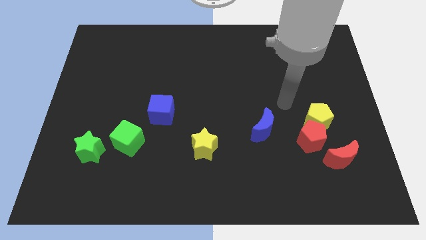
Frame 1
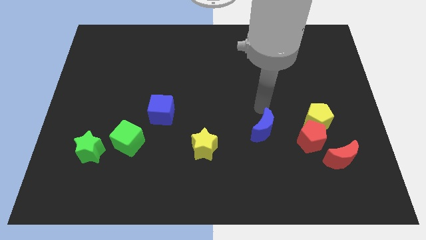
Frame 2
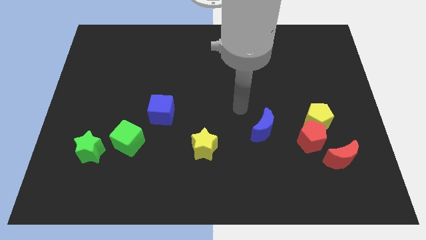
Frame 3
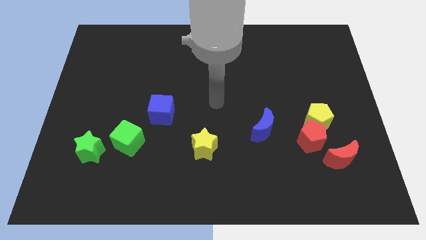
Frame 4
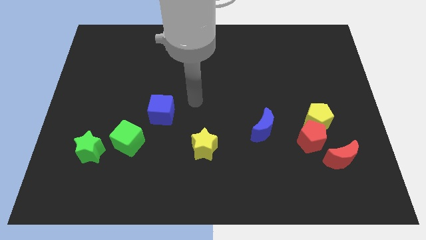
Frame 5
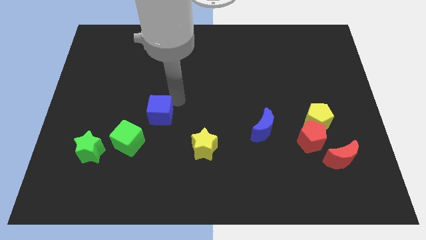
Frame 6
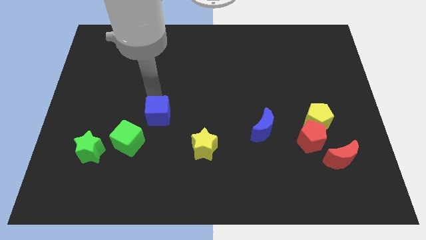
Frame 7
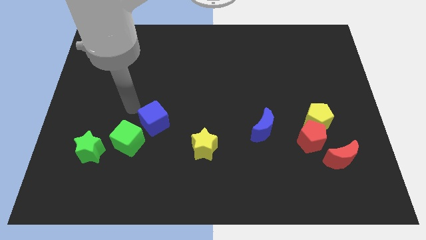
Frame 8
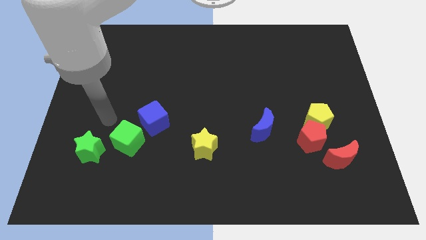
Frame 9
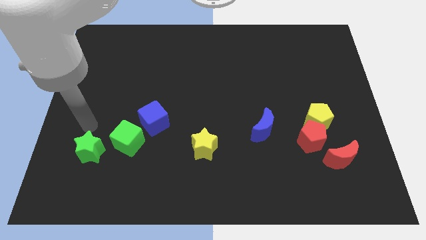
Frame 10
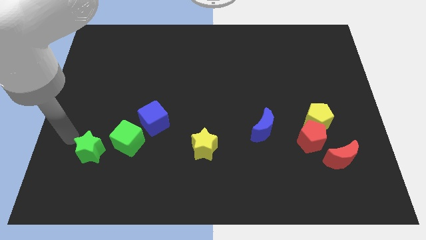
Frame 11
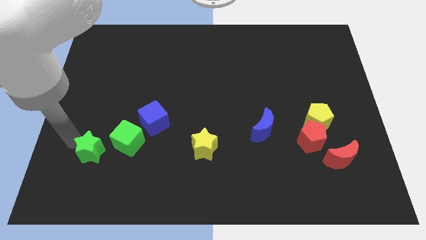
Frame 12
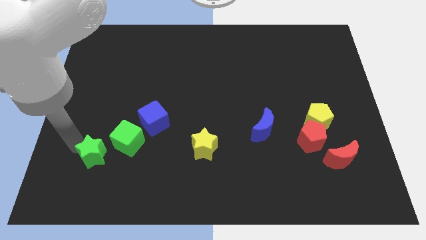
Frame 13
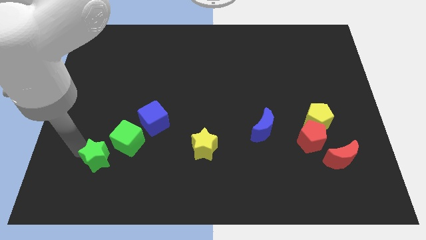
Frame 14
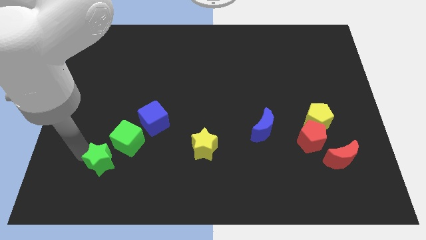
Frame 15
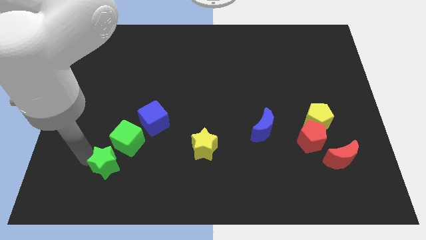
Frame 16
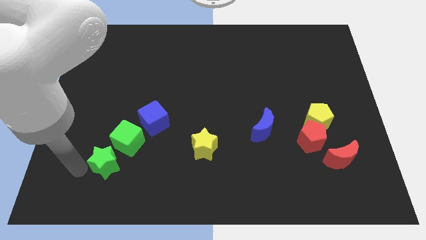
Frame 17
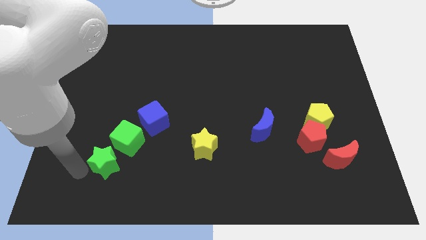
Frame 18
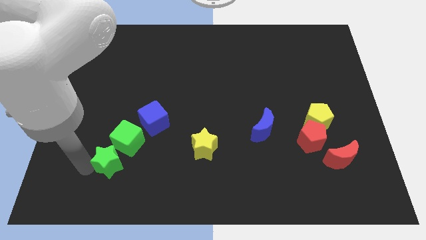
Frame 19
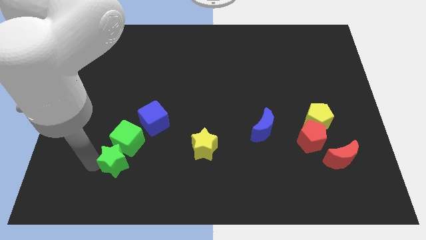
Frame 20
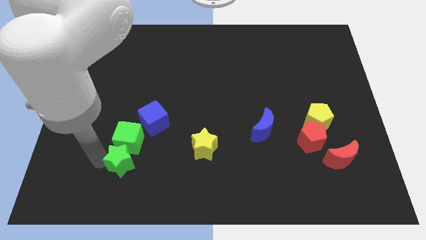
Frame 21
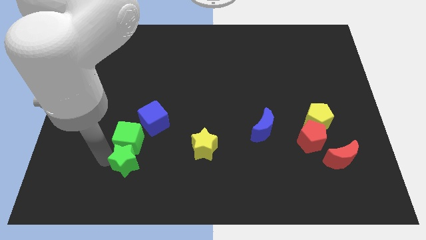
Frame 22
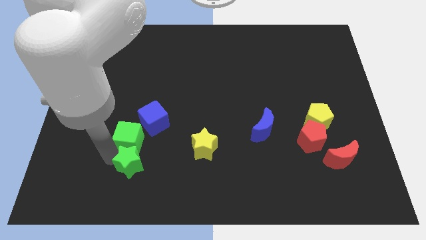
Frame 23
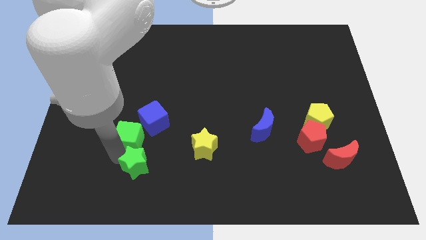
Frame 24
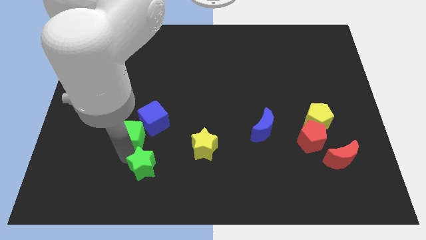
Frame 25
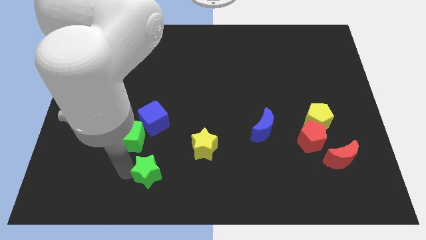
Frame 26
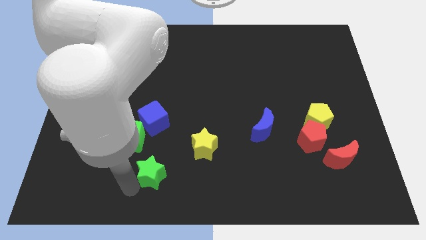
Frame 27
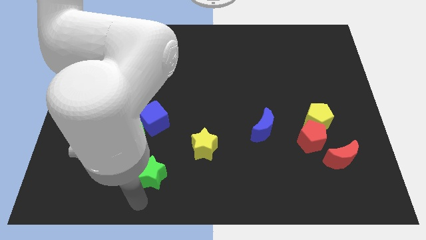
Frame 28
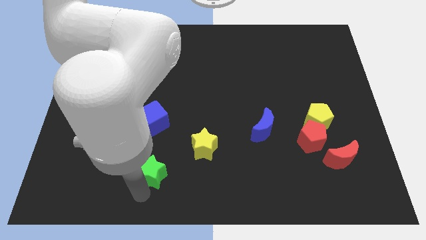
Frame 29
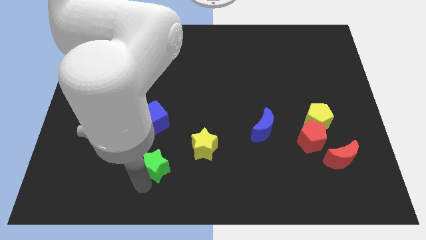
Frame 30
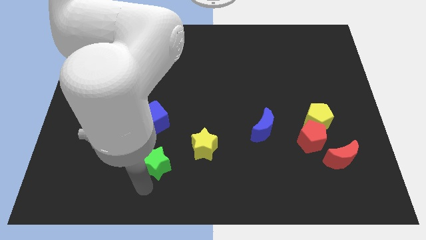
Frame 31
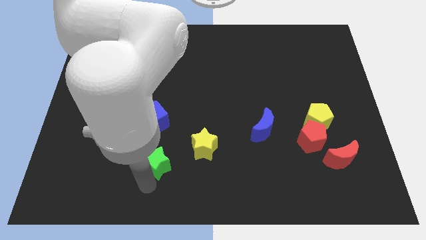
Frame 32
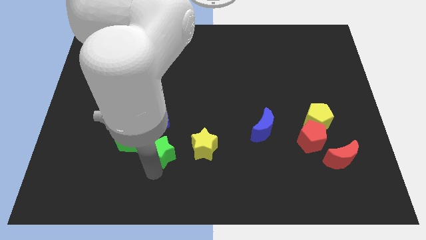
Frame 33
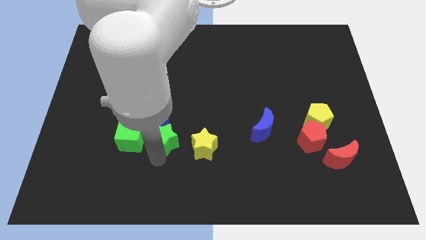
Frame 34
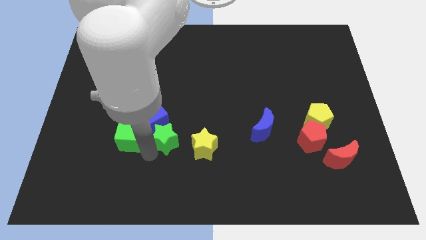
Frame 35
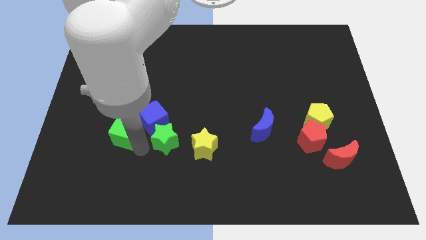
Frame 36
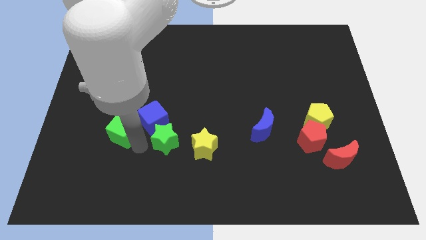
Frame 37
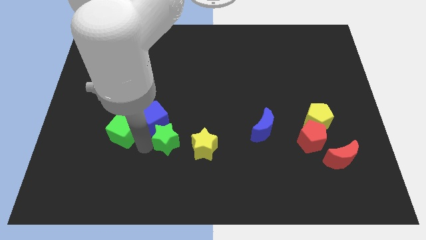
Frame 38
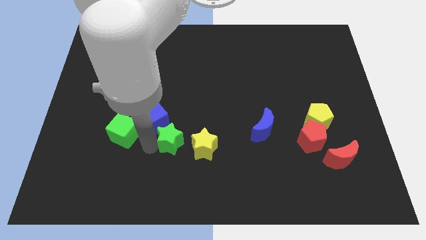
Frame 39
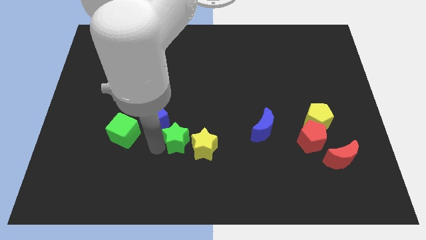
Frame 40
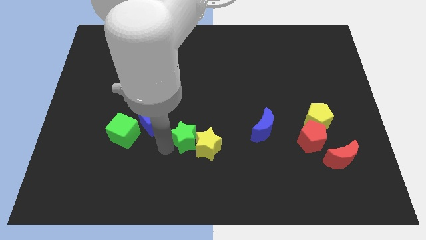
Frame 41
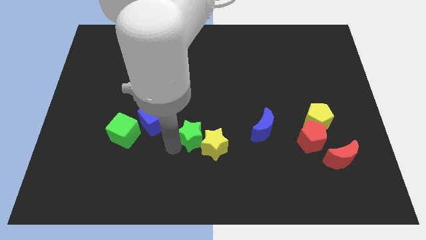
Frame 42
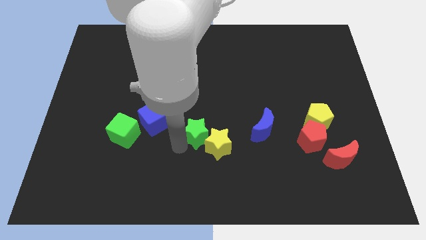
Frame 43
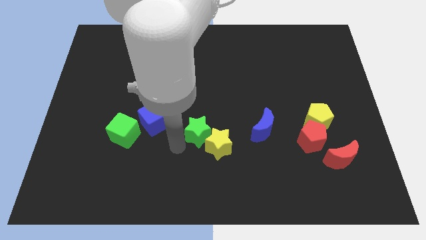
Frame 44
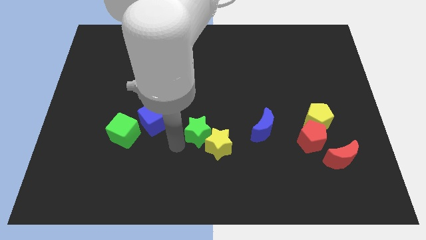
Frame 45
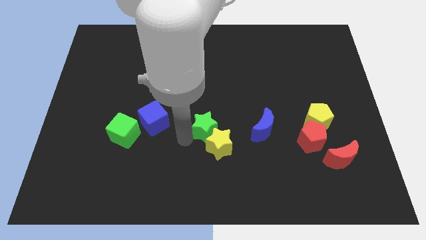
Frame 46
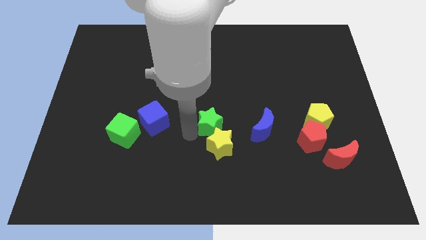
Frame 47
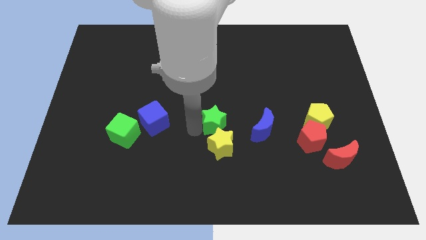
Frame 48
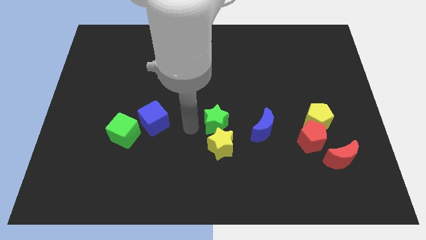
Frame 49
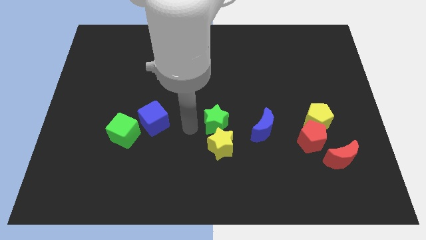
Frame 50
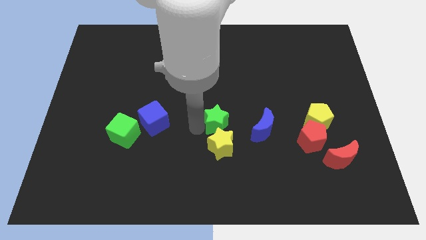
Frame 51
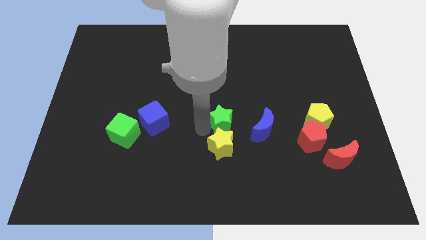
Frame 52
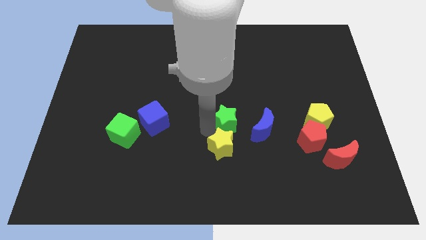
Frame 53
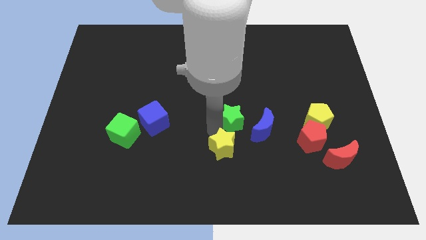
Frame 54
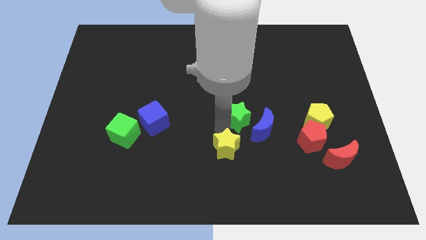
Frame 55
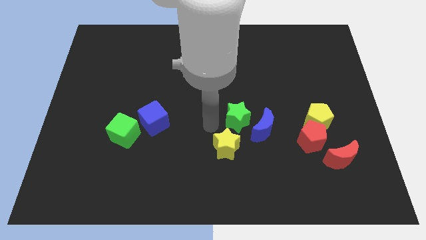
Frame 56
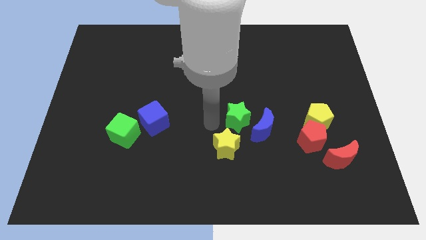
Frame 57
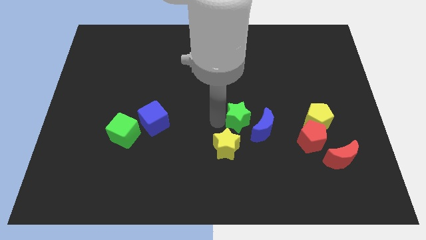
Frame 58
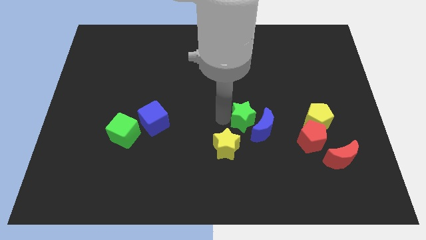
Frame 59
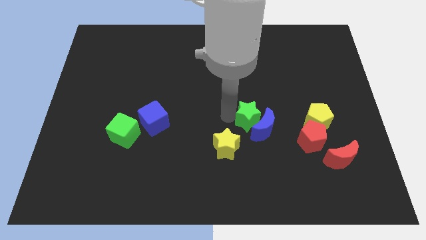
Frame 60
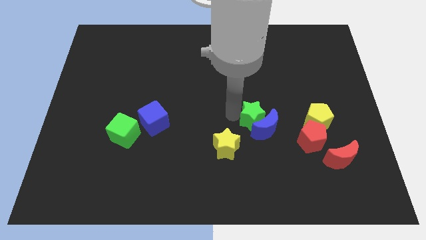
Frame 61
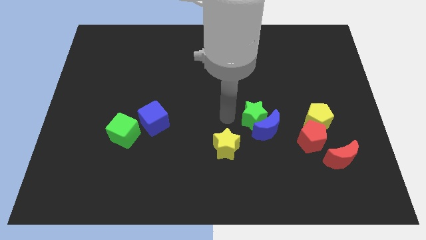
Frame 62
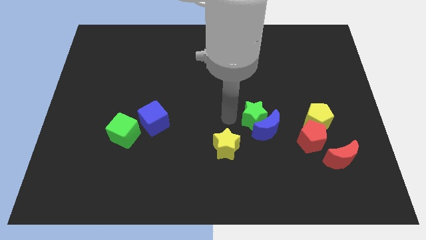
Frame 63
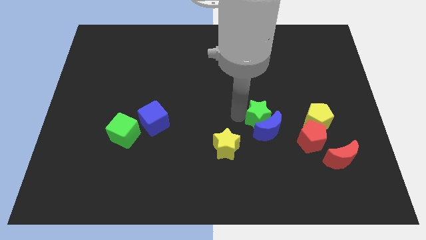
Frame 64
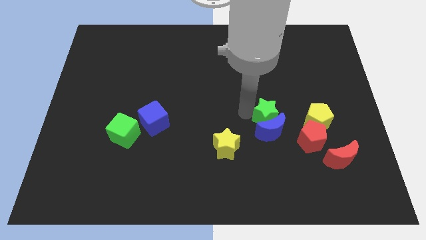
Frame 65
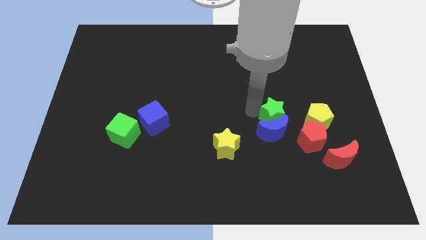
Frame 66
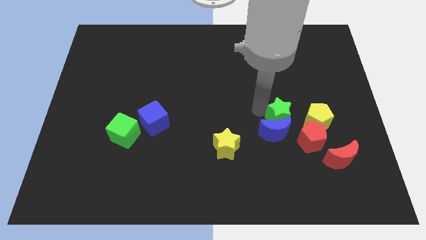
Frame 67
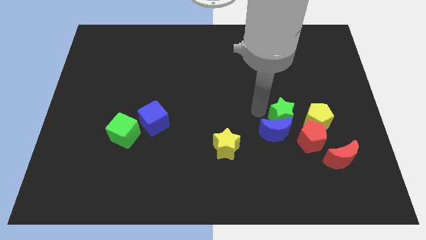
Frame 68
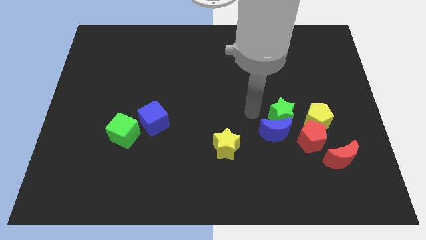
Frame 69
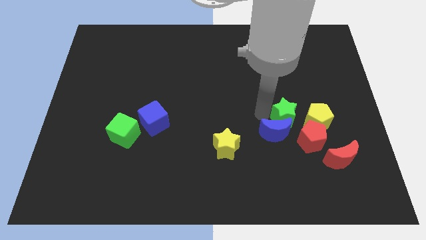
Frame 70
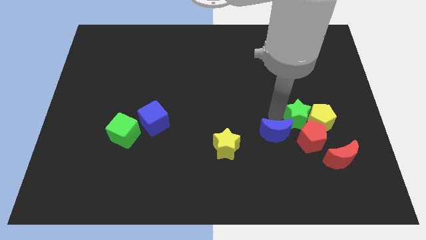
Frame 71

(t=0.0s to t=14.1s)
move the green star to the yellow pentagon
